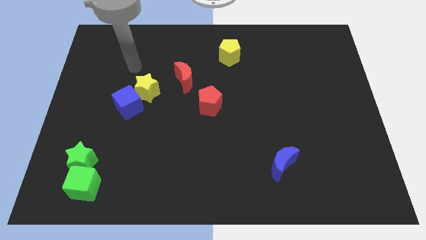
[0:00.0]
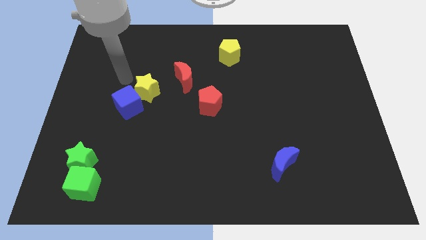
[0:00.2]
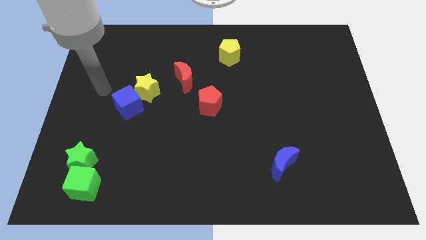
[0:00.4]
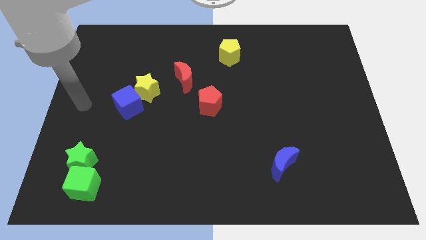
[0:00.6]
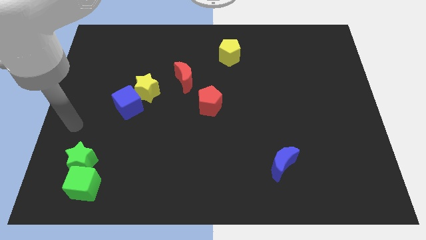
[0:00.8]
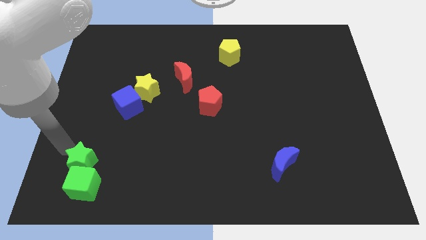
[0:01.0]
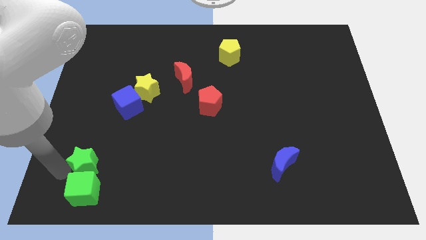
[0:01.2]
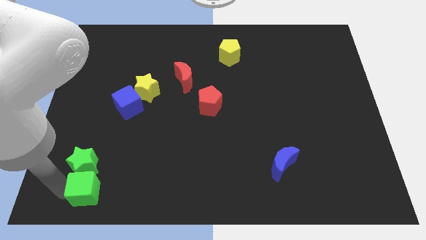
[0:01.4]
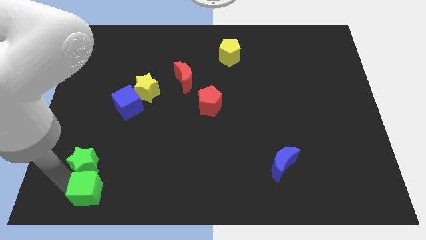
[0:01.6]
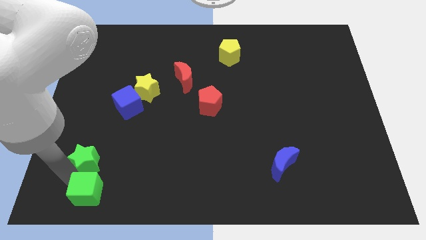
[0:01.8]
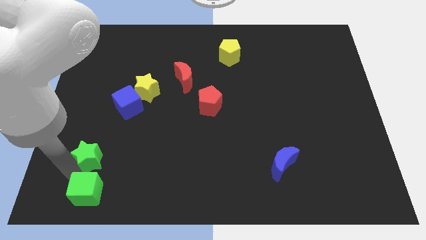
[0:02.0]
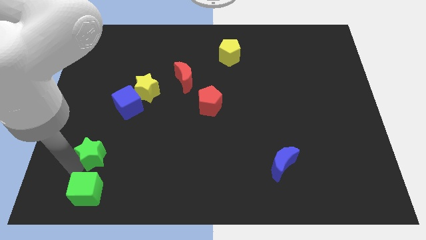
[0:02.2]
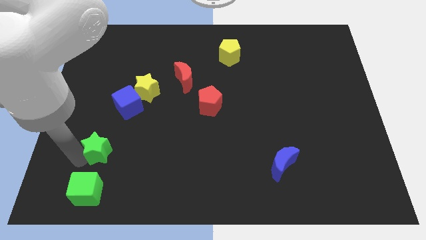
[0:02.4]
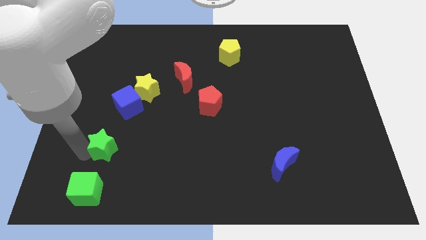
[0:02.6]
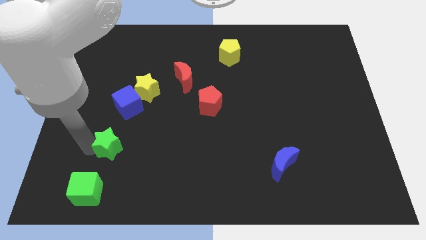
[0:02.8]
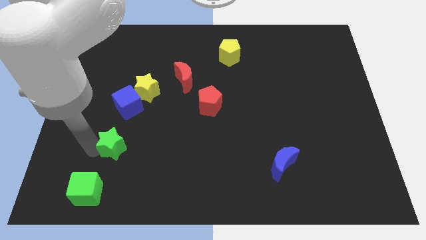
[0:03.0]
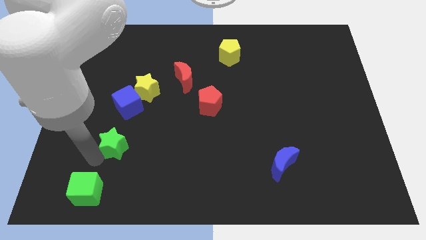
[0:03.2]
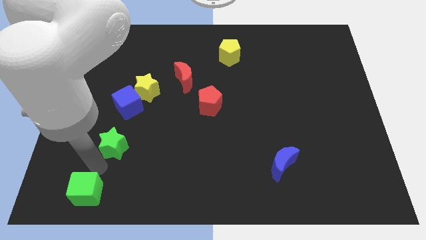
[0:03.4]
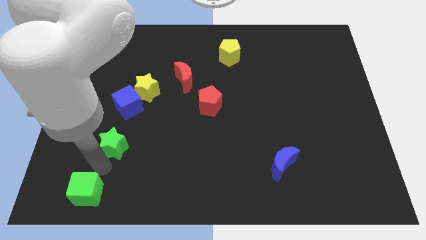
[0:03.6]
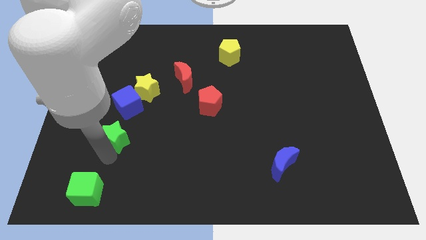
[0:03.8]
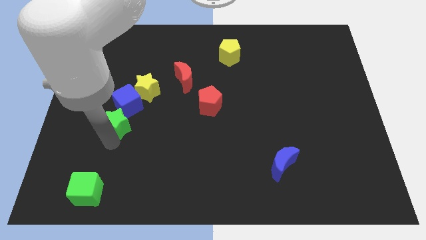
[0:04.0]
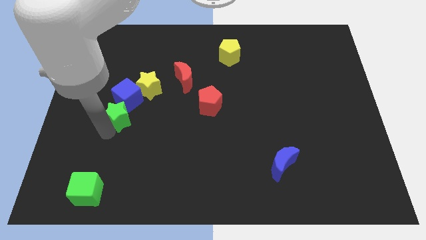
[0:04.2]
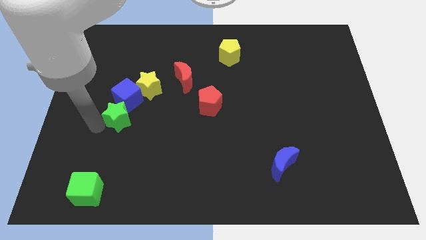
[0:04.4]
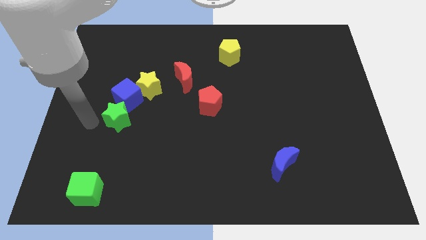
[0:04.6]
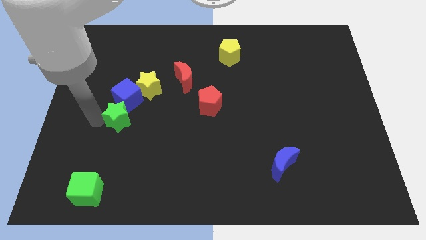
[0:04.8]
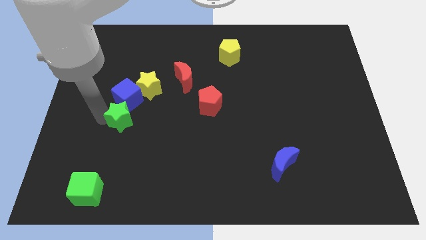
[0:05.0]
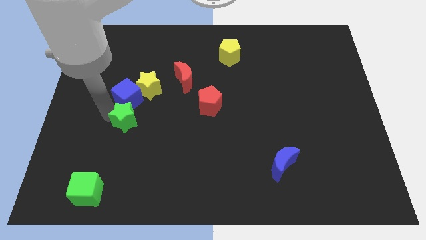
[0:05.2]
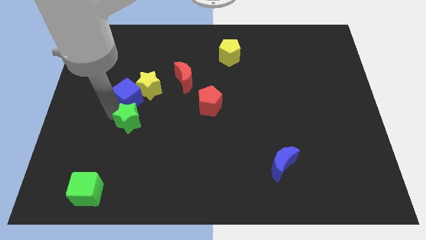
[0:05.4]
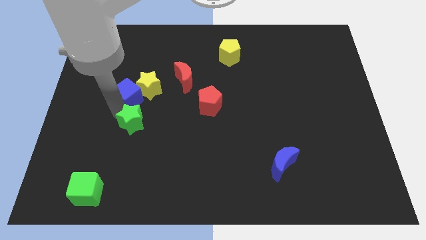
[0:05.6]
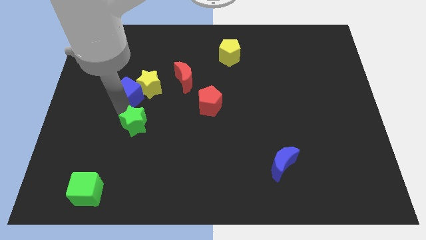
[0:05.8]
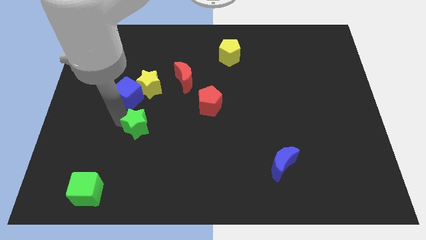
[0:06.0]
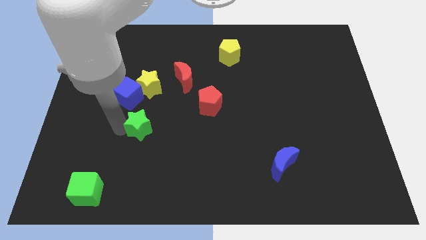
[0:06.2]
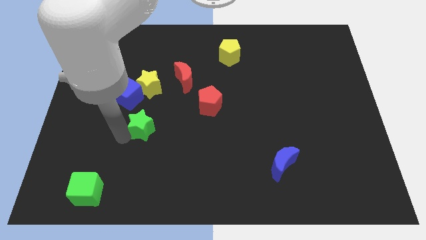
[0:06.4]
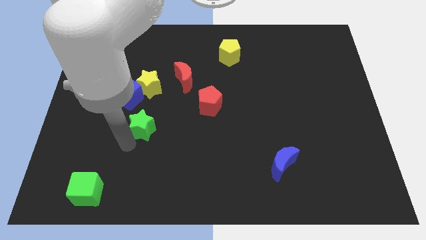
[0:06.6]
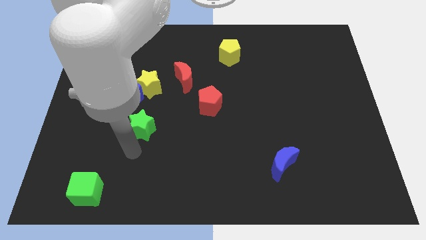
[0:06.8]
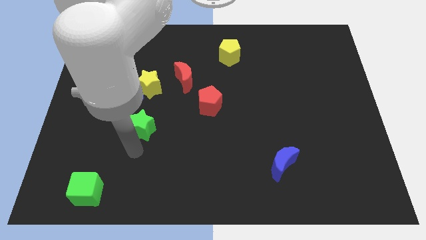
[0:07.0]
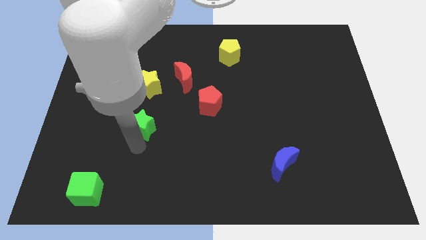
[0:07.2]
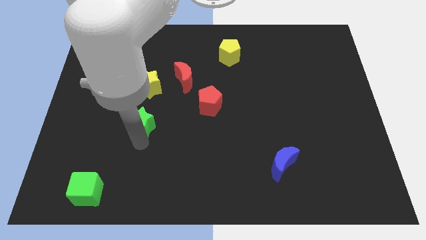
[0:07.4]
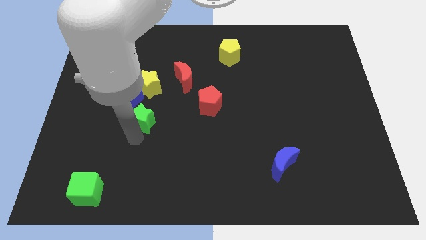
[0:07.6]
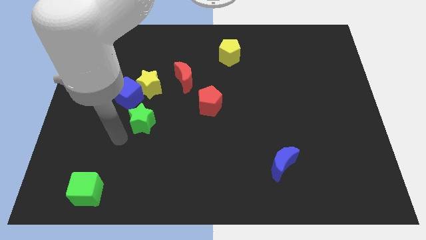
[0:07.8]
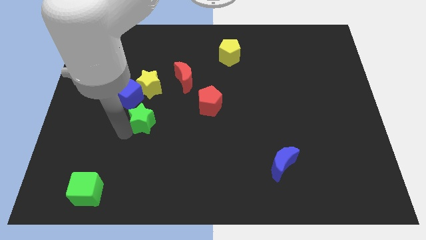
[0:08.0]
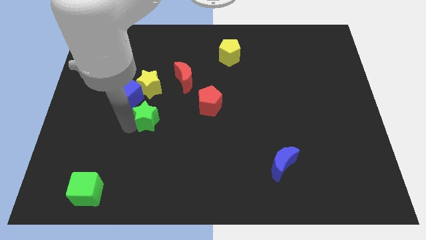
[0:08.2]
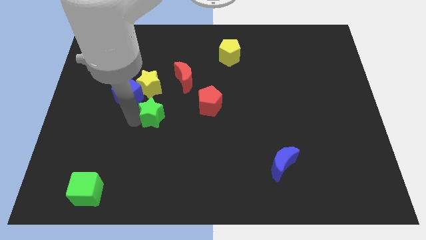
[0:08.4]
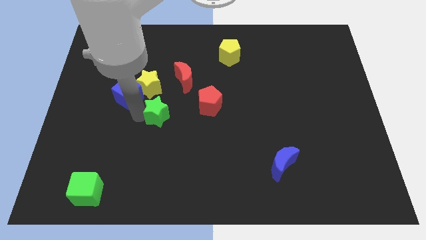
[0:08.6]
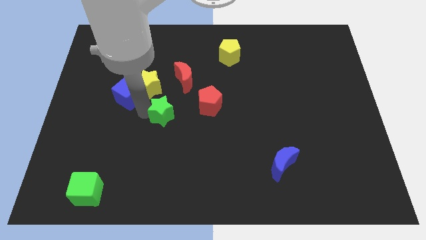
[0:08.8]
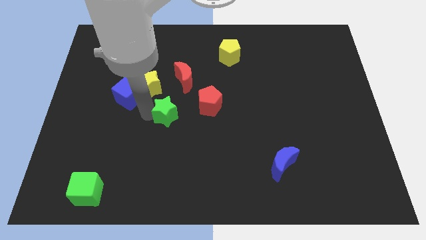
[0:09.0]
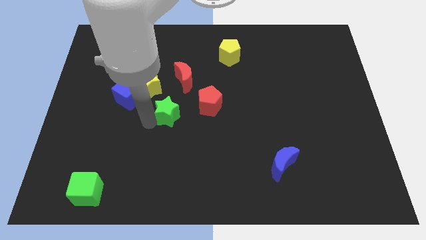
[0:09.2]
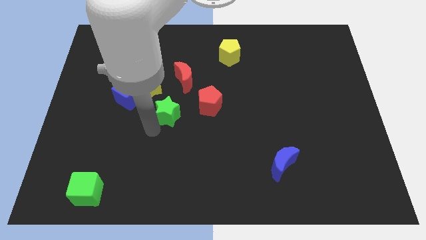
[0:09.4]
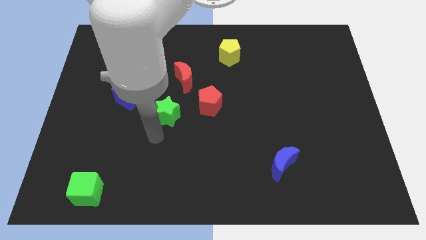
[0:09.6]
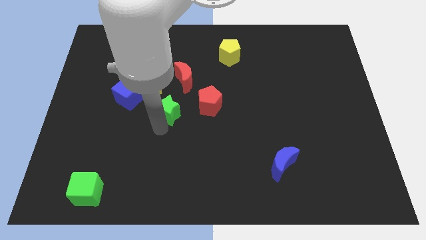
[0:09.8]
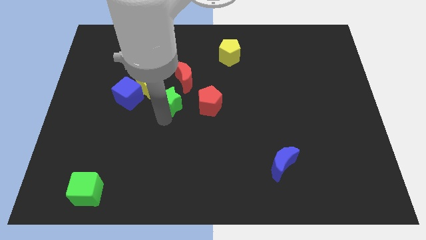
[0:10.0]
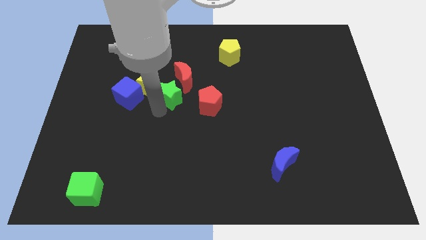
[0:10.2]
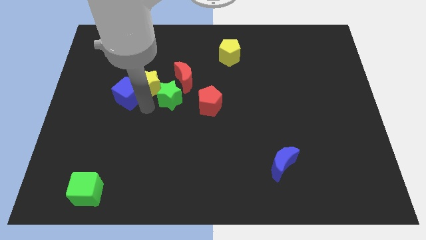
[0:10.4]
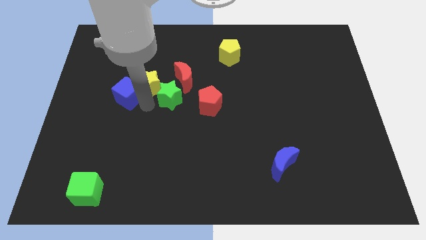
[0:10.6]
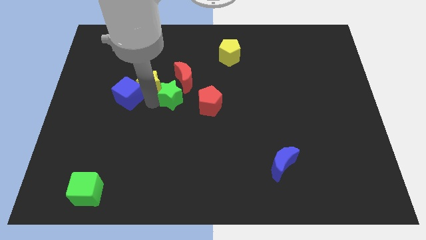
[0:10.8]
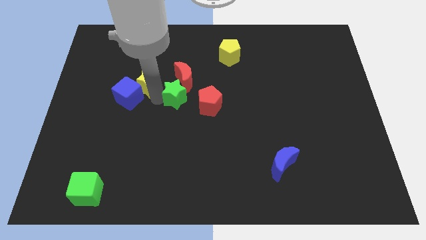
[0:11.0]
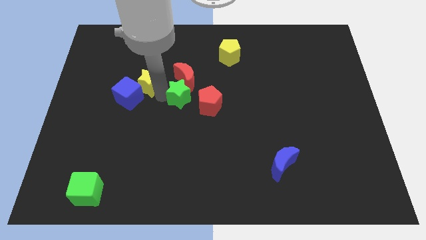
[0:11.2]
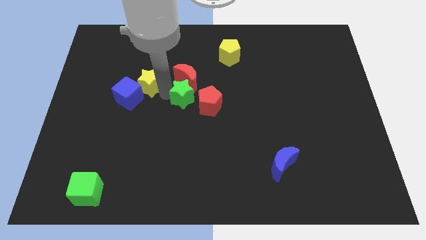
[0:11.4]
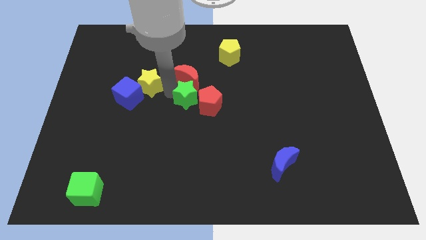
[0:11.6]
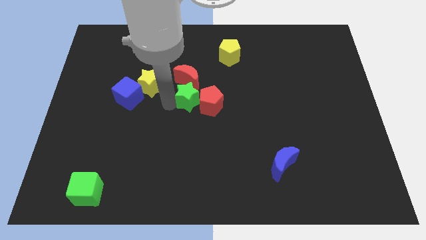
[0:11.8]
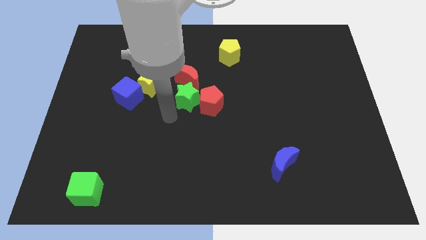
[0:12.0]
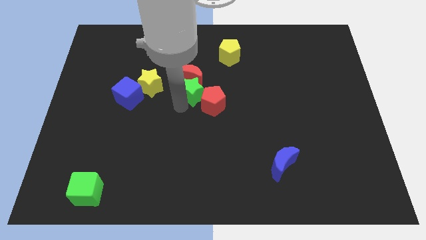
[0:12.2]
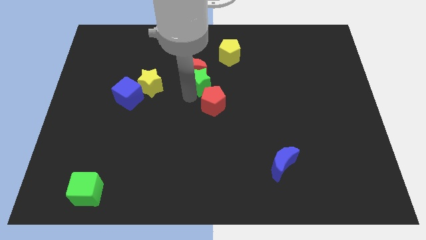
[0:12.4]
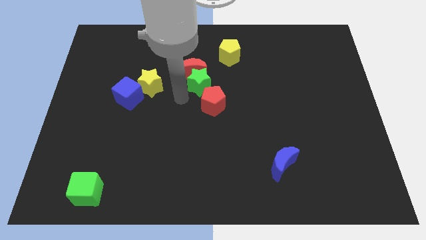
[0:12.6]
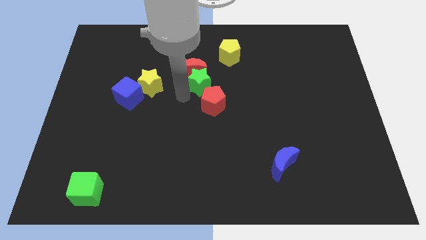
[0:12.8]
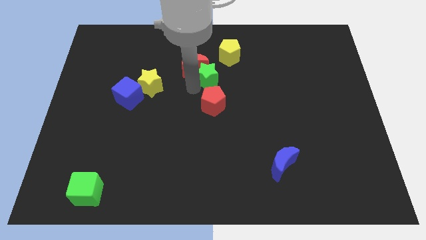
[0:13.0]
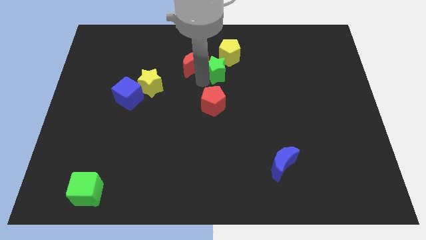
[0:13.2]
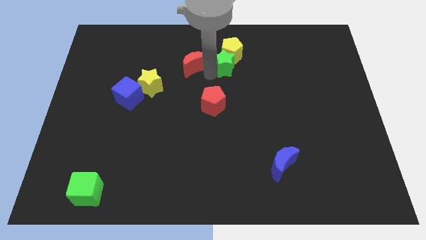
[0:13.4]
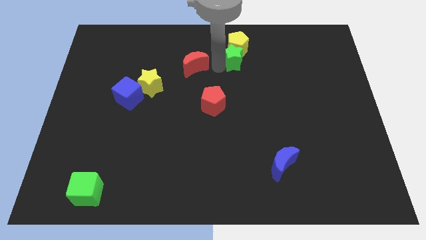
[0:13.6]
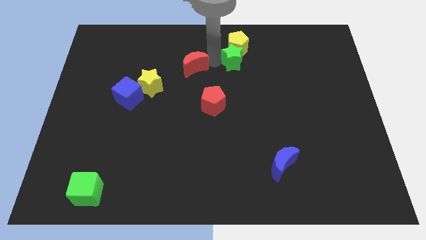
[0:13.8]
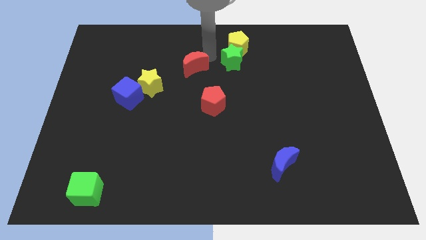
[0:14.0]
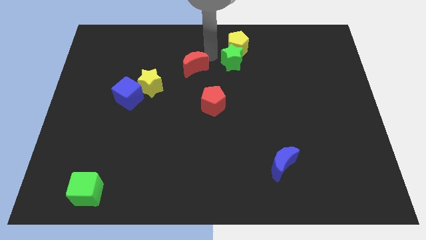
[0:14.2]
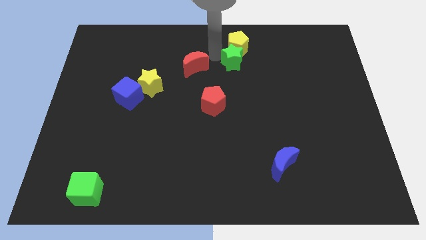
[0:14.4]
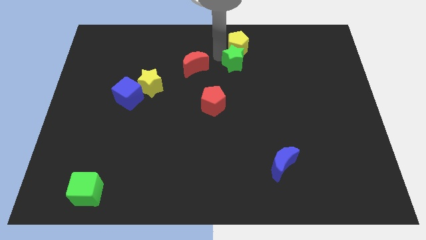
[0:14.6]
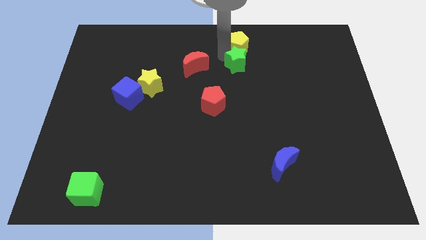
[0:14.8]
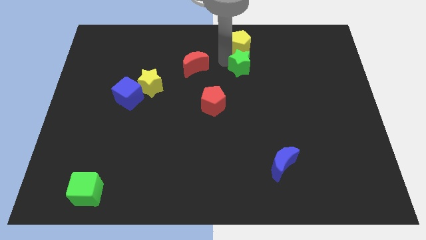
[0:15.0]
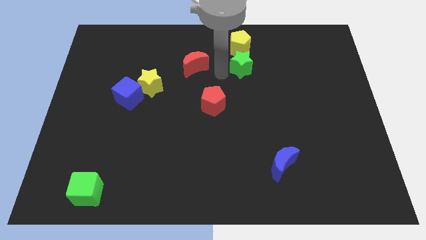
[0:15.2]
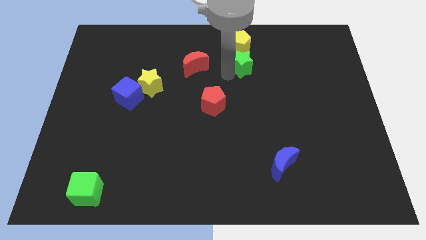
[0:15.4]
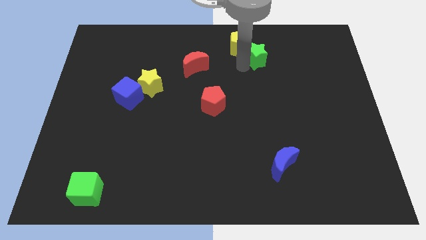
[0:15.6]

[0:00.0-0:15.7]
move the green star just right of the yellow pentagon

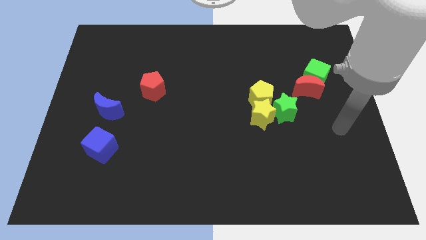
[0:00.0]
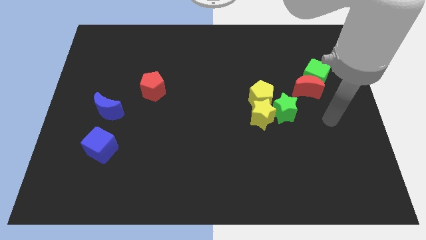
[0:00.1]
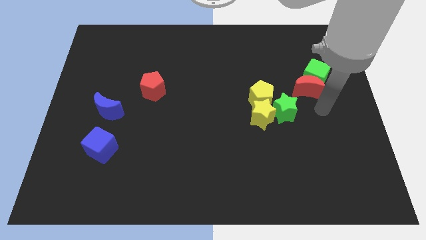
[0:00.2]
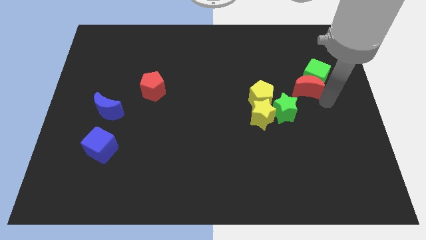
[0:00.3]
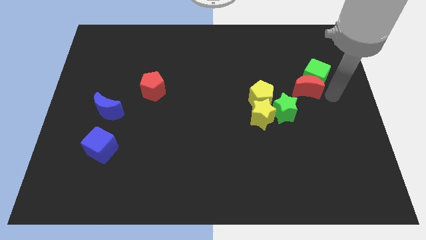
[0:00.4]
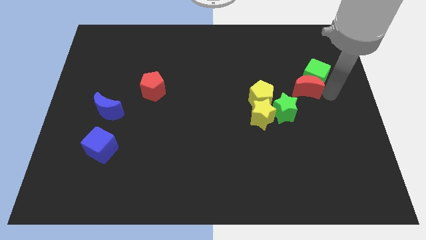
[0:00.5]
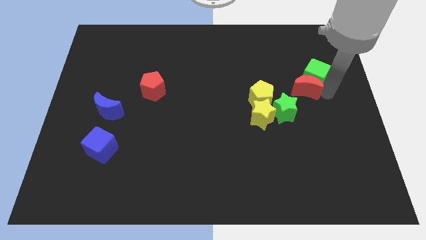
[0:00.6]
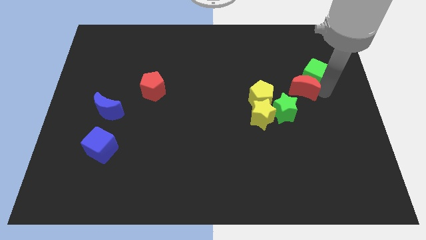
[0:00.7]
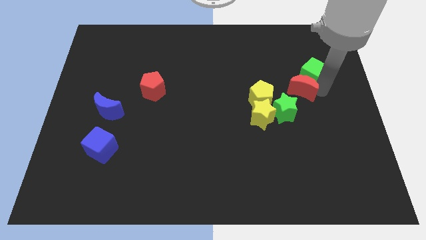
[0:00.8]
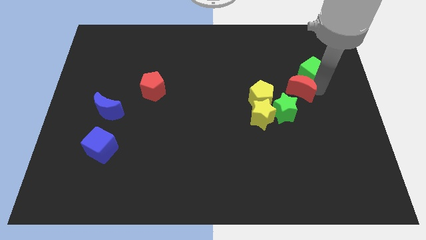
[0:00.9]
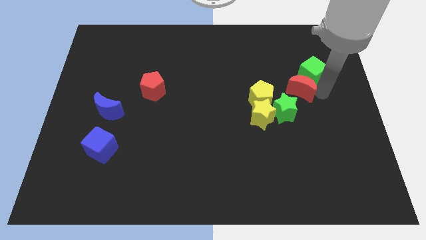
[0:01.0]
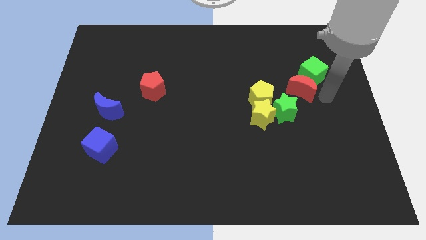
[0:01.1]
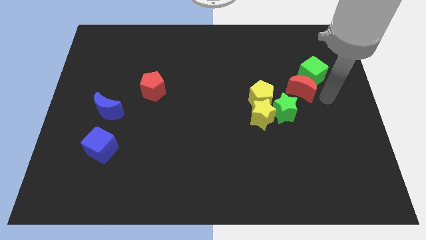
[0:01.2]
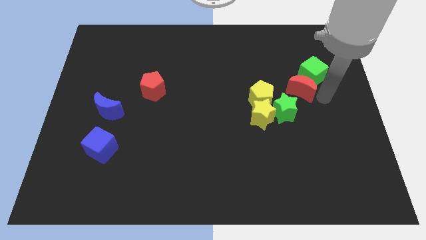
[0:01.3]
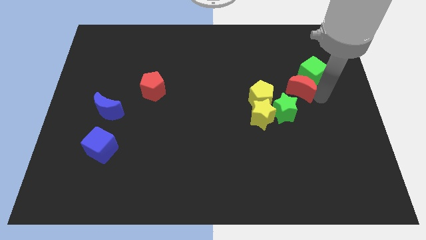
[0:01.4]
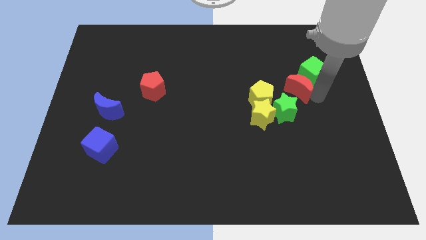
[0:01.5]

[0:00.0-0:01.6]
put the red moon to the top right of the yellow pentagon
